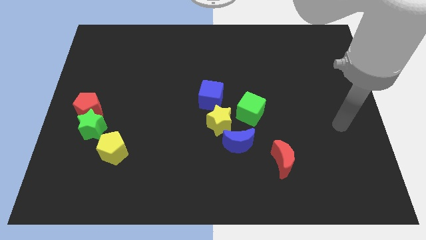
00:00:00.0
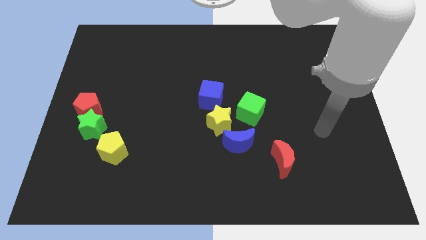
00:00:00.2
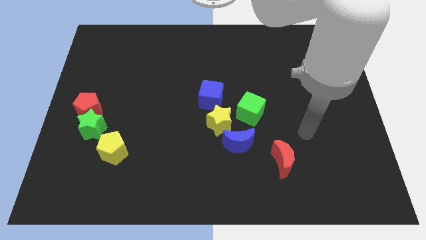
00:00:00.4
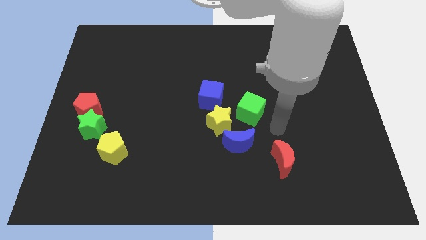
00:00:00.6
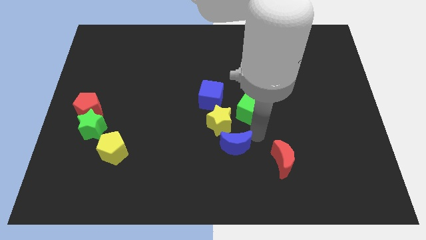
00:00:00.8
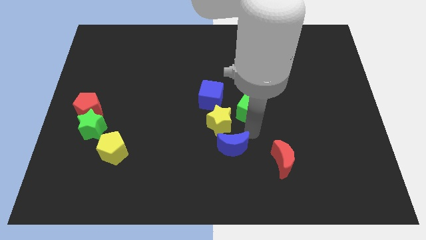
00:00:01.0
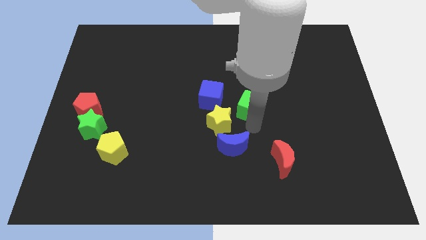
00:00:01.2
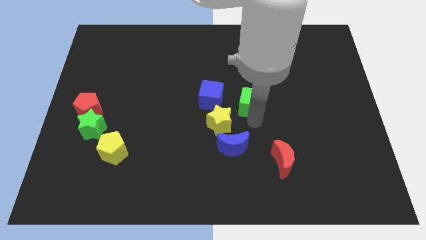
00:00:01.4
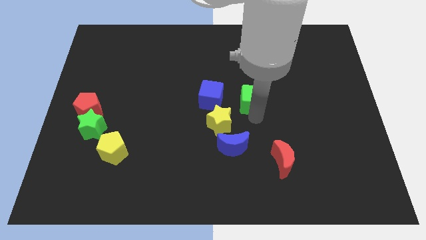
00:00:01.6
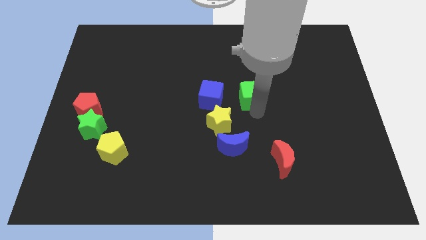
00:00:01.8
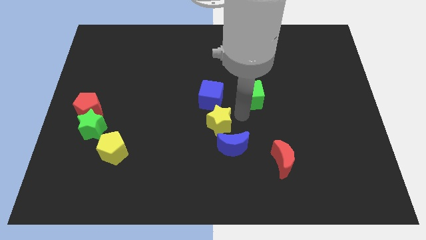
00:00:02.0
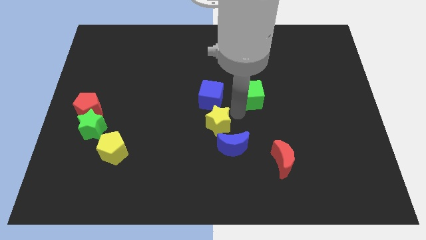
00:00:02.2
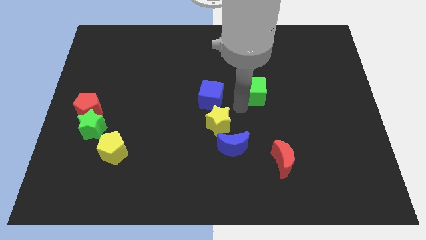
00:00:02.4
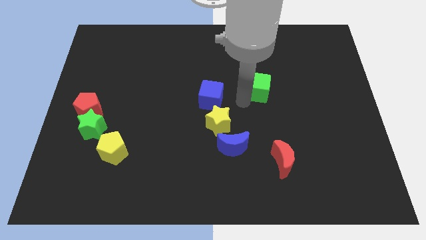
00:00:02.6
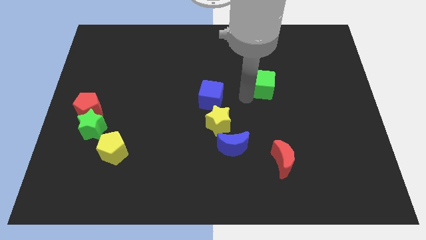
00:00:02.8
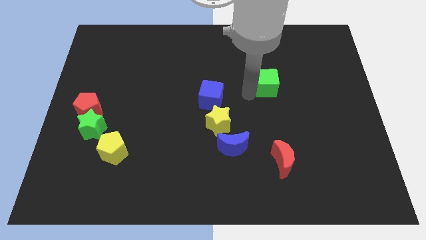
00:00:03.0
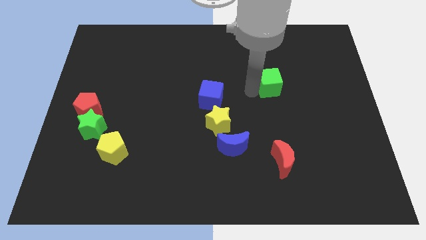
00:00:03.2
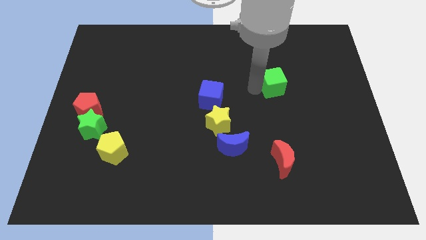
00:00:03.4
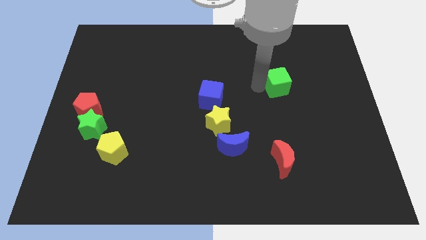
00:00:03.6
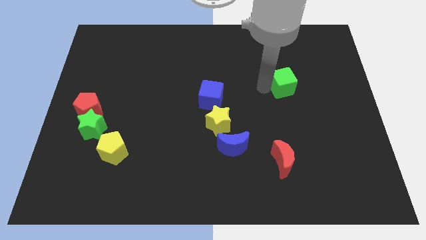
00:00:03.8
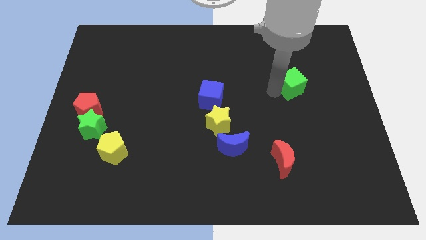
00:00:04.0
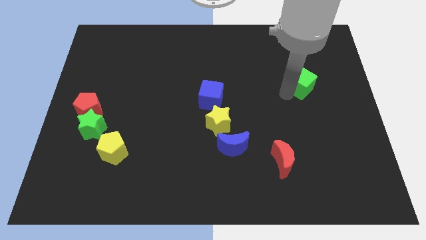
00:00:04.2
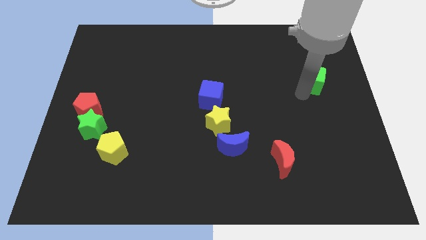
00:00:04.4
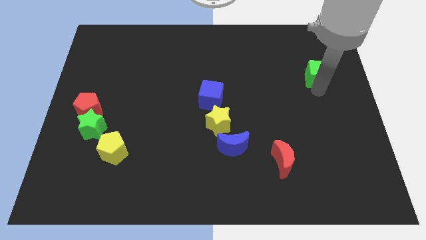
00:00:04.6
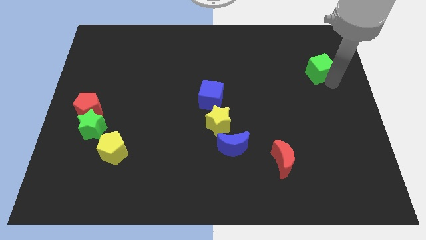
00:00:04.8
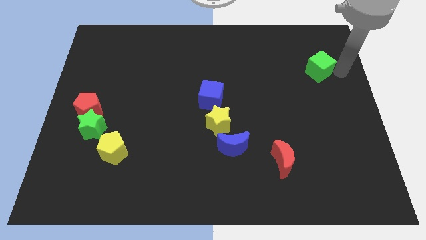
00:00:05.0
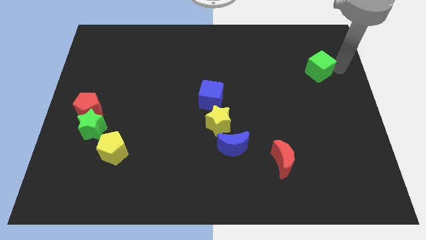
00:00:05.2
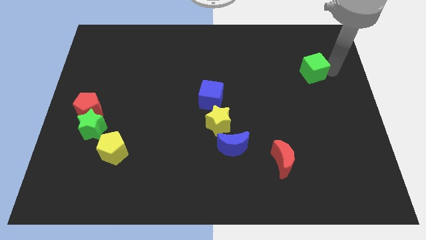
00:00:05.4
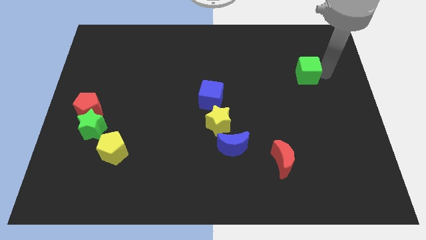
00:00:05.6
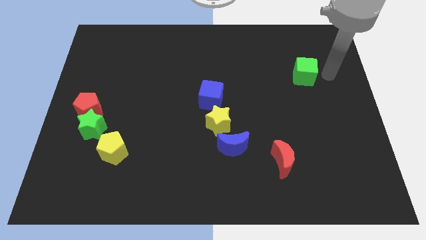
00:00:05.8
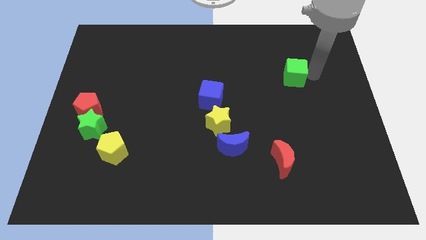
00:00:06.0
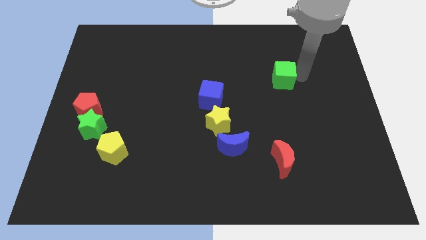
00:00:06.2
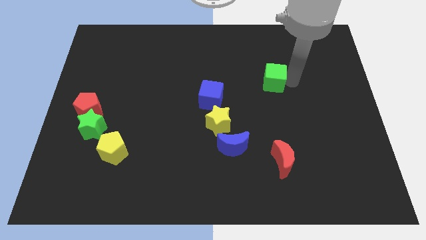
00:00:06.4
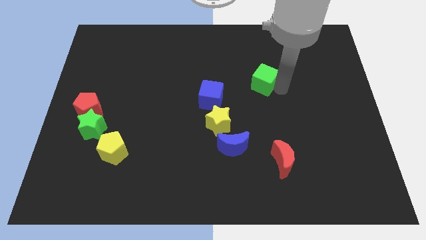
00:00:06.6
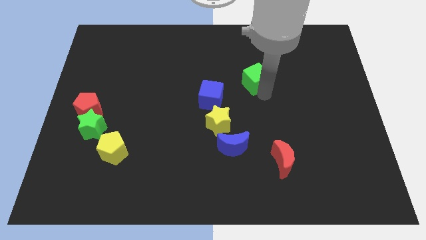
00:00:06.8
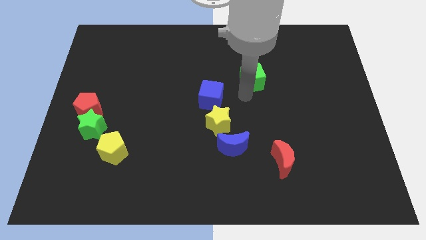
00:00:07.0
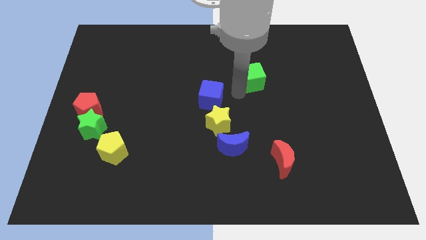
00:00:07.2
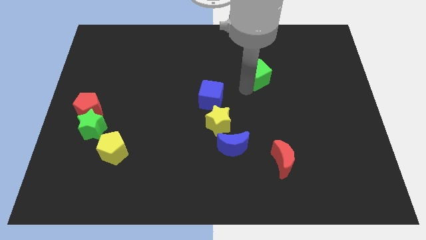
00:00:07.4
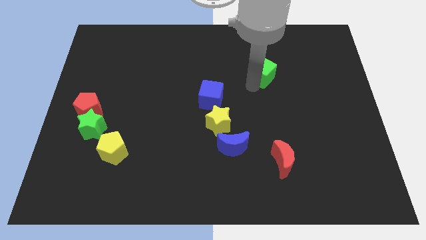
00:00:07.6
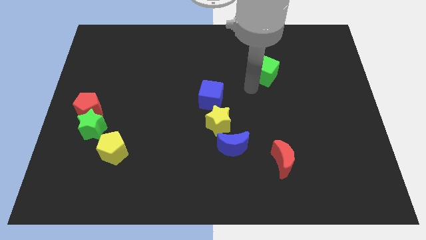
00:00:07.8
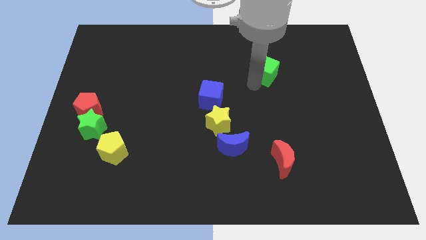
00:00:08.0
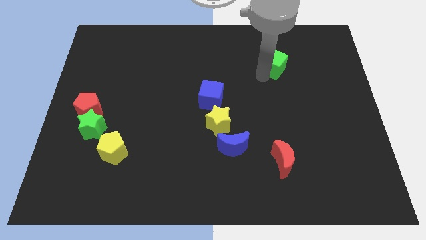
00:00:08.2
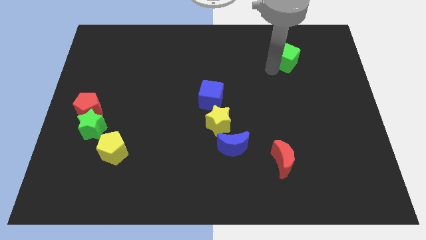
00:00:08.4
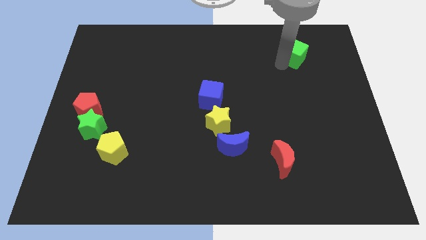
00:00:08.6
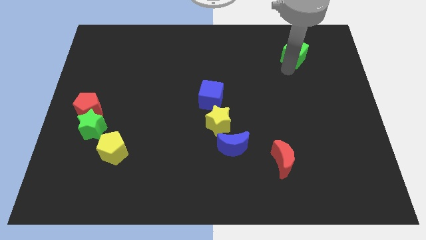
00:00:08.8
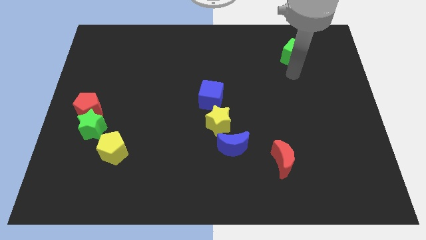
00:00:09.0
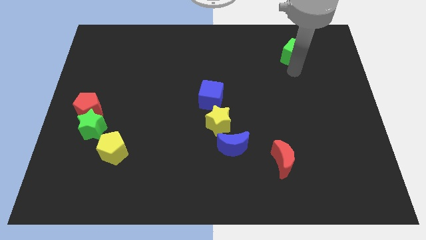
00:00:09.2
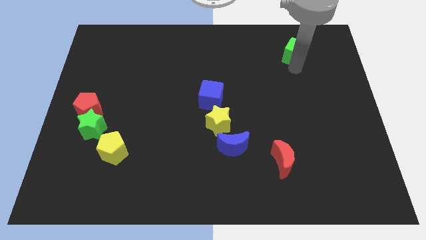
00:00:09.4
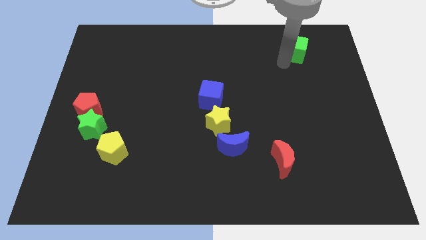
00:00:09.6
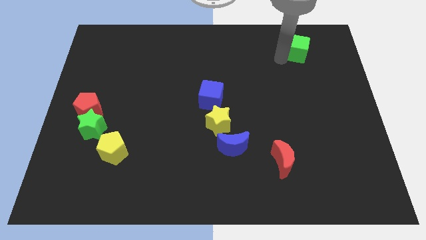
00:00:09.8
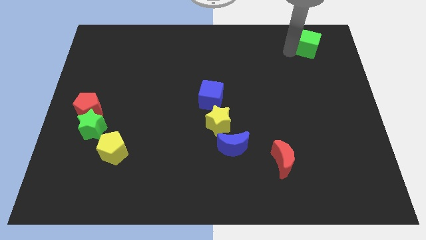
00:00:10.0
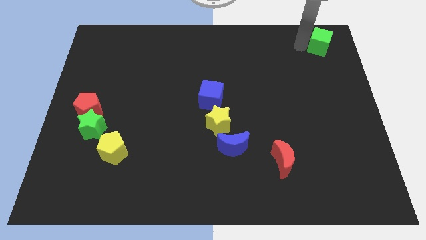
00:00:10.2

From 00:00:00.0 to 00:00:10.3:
slide the green cube to the top right of the board

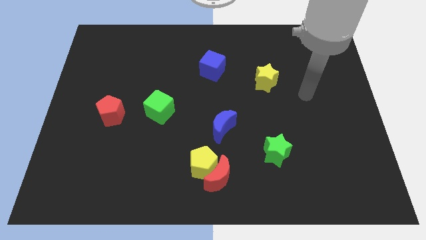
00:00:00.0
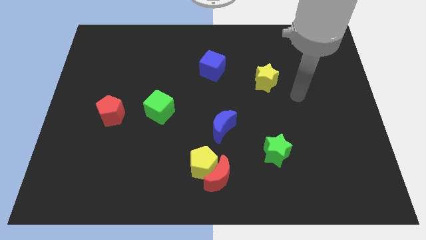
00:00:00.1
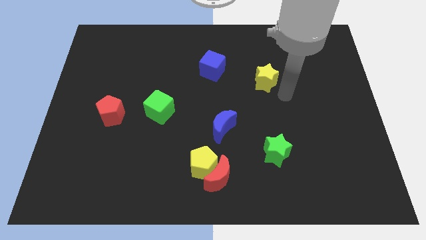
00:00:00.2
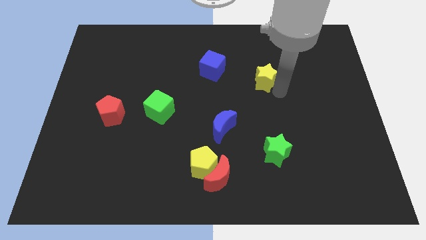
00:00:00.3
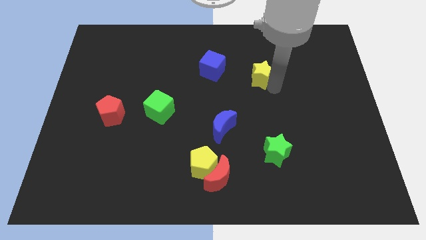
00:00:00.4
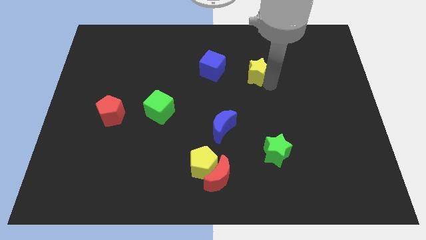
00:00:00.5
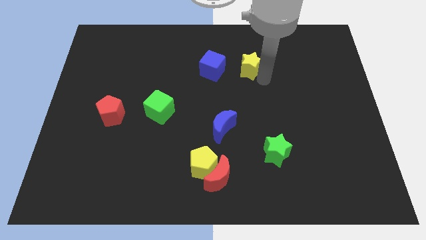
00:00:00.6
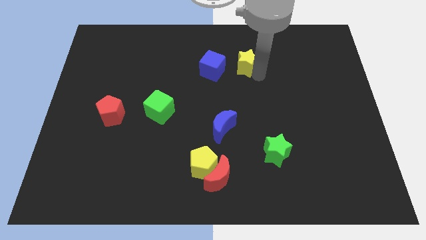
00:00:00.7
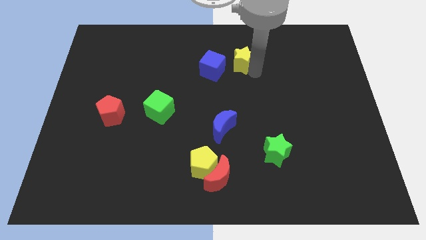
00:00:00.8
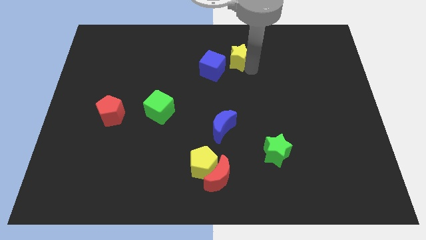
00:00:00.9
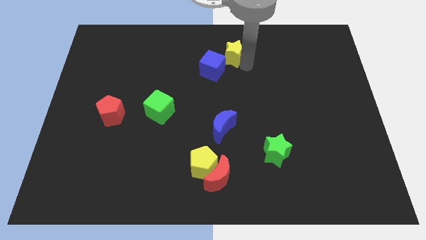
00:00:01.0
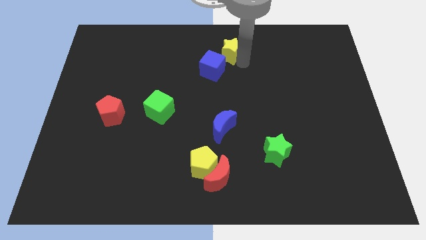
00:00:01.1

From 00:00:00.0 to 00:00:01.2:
slide the yellow star to the top side
